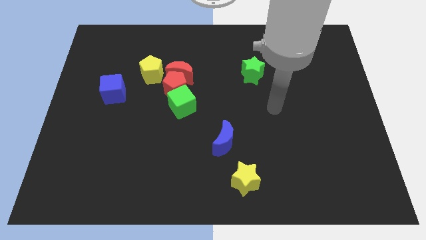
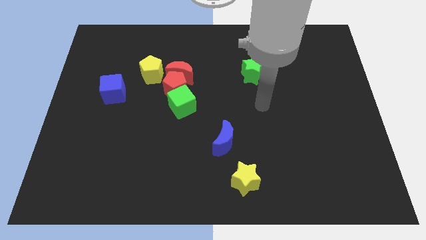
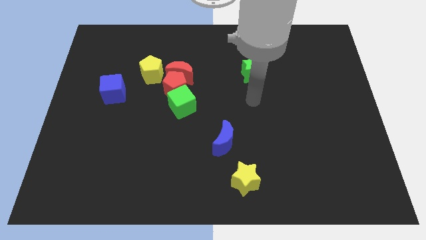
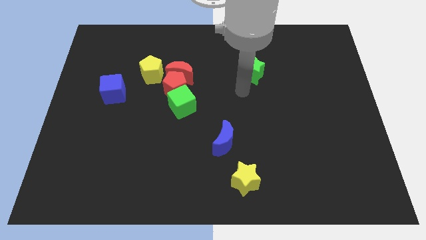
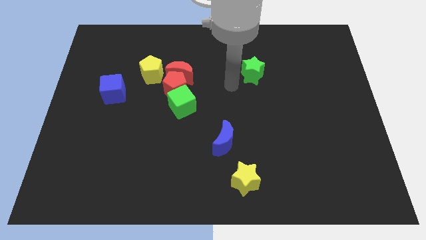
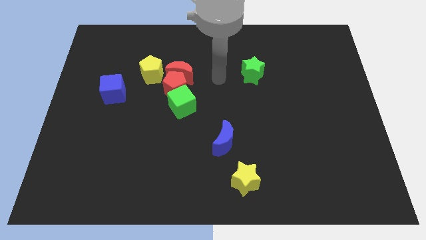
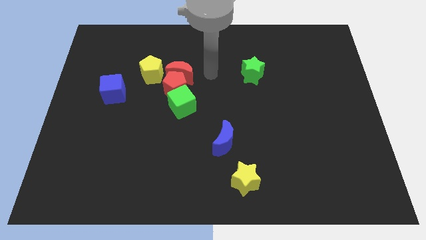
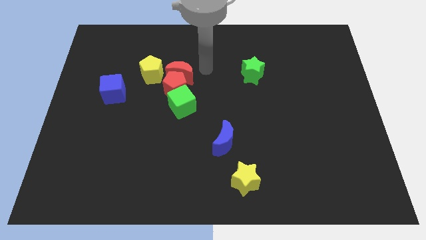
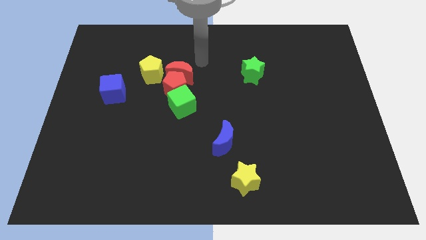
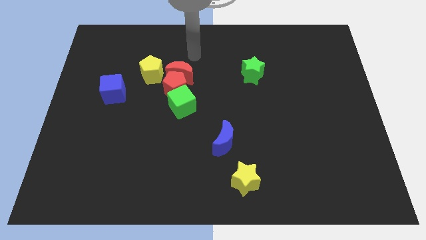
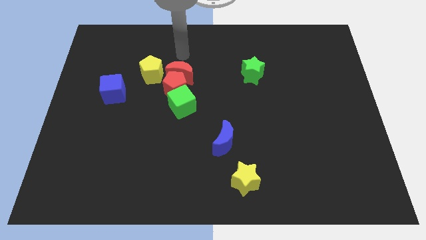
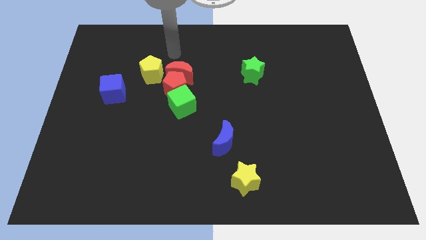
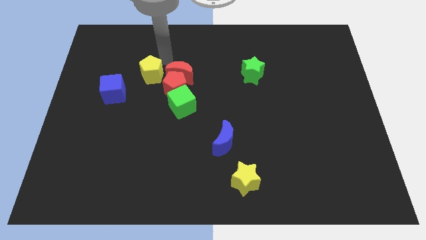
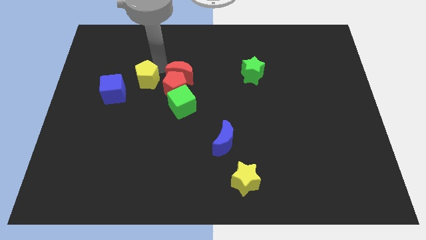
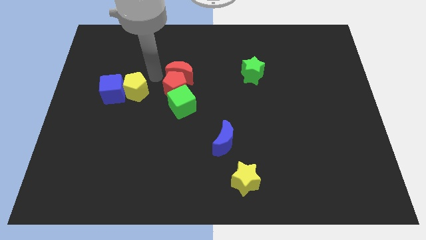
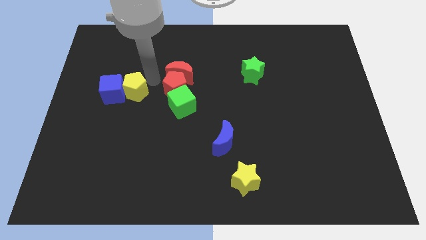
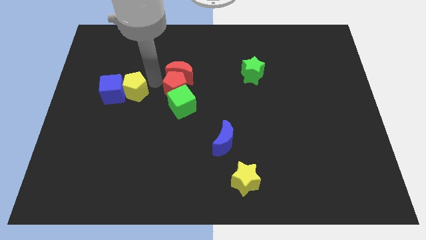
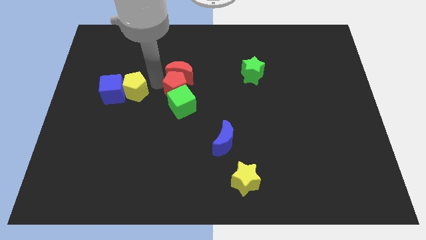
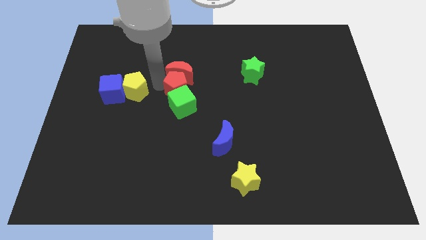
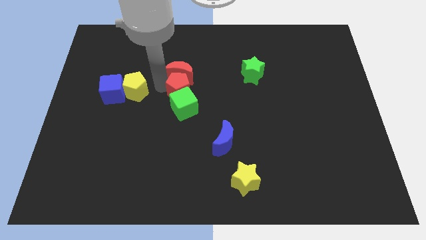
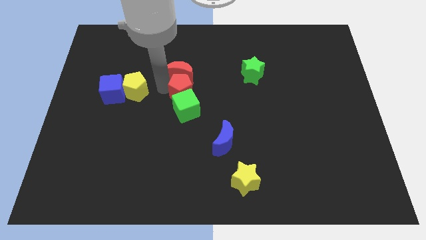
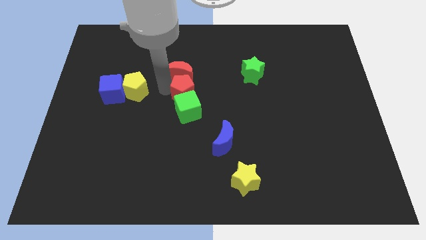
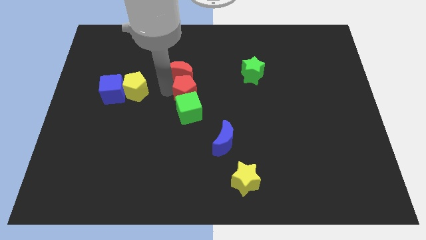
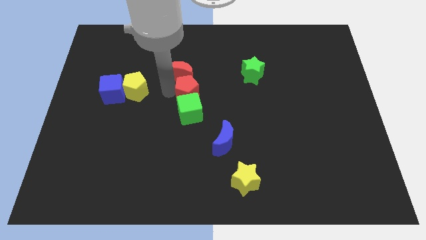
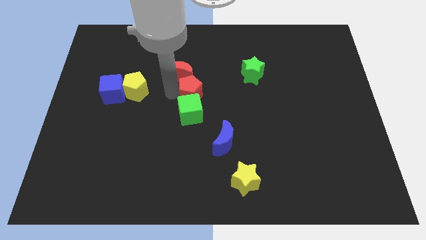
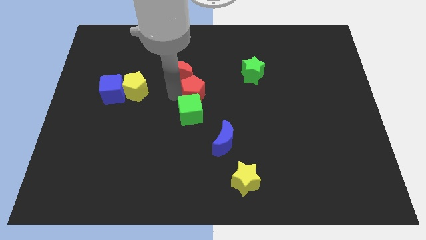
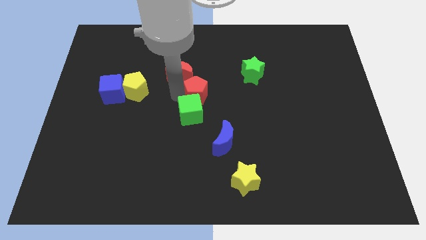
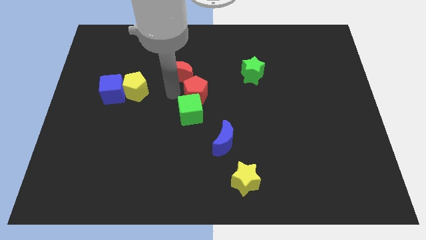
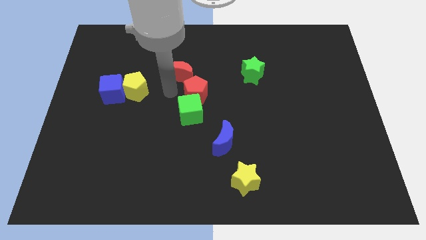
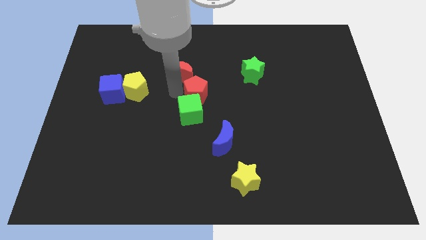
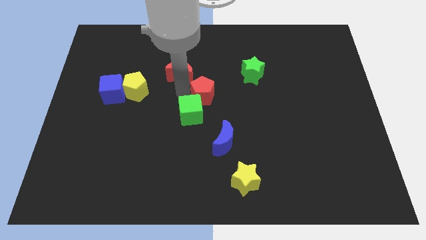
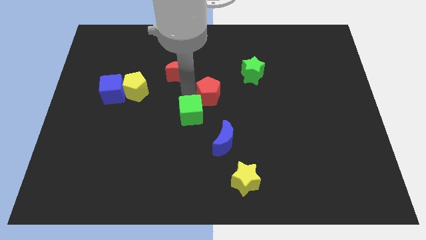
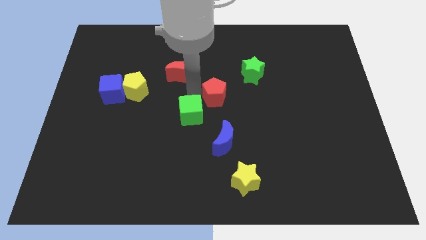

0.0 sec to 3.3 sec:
move the red pentagon away from the clump

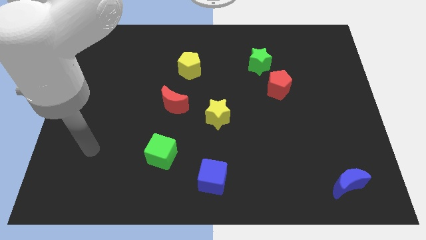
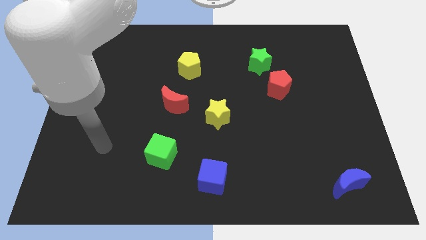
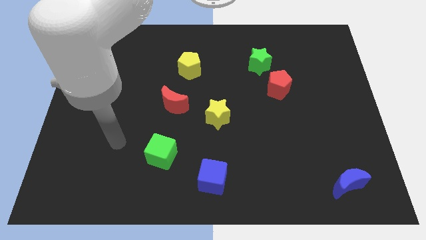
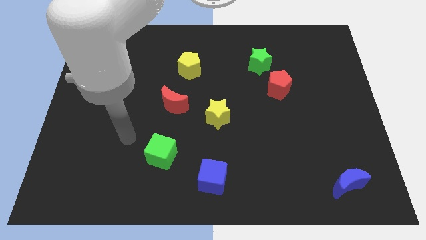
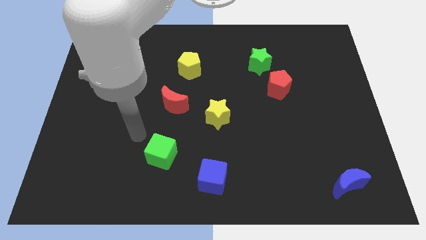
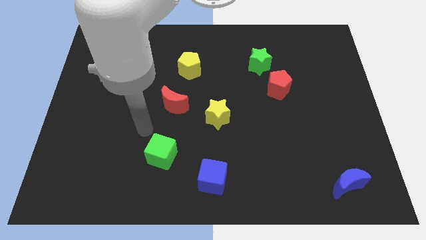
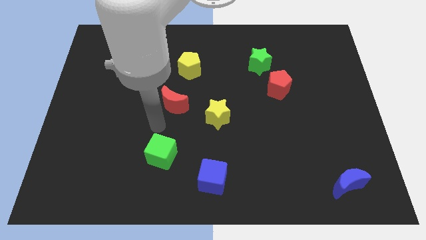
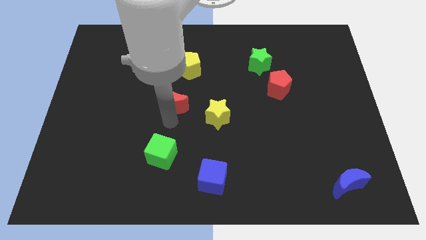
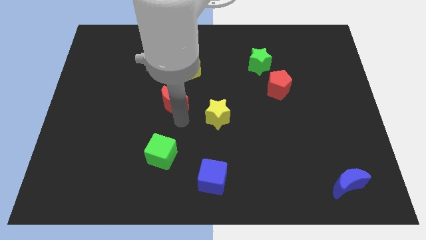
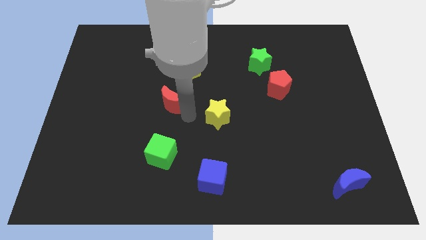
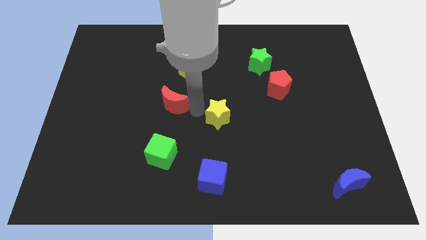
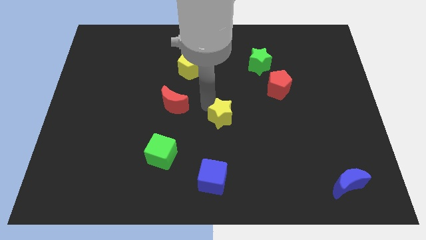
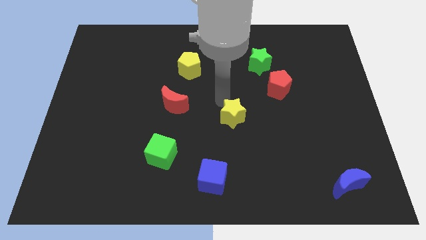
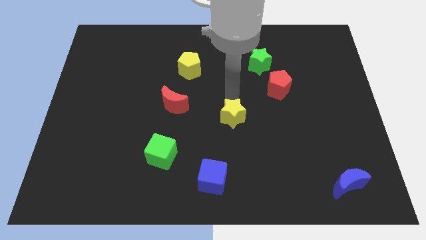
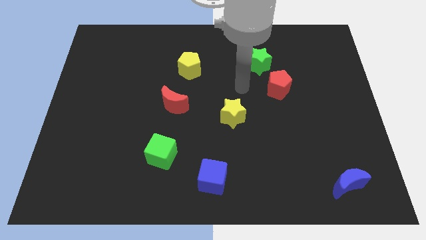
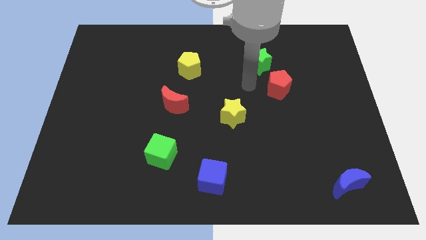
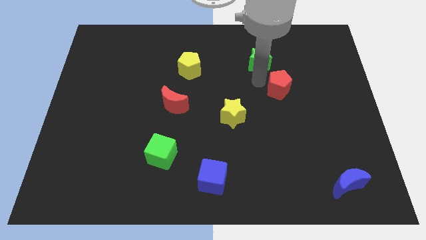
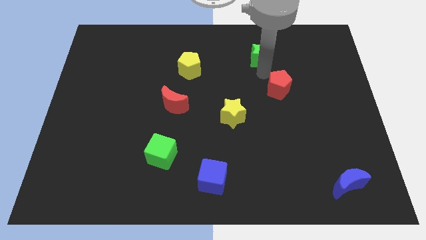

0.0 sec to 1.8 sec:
separate the red pentagon from the green star

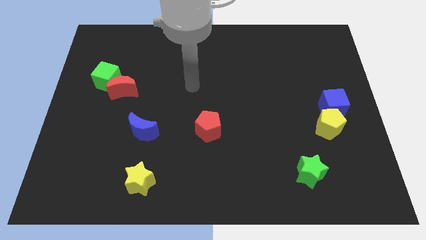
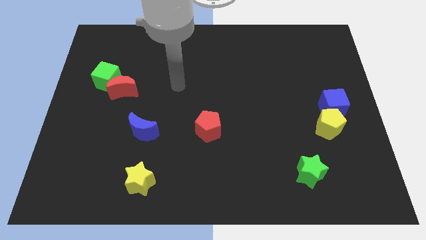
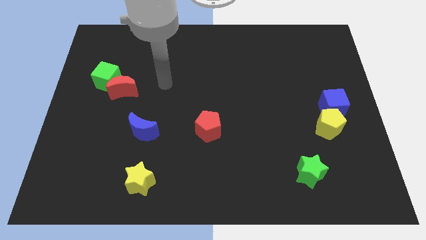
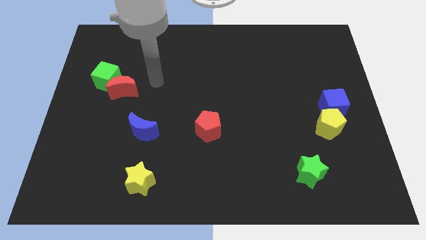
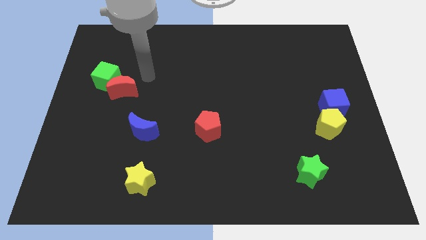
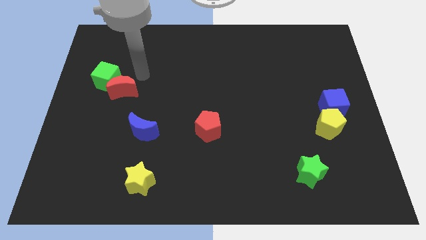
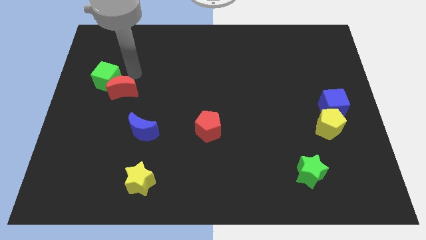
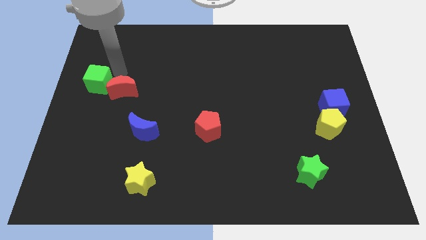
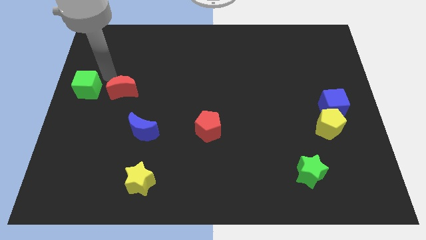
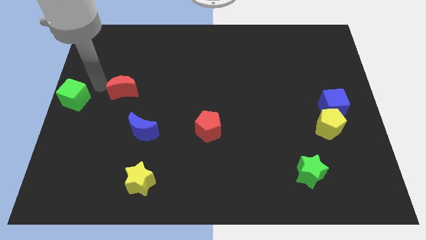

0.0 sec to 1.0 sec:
separate the red moon from the green cube

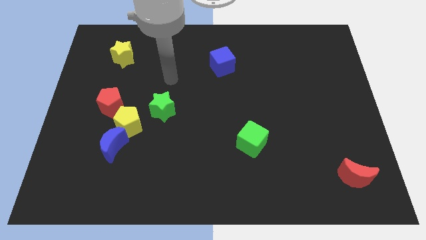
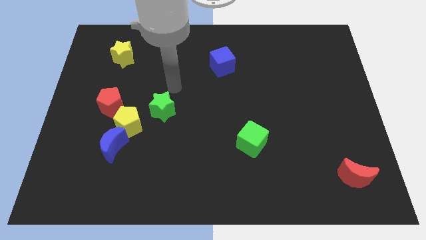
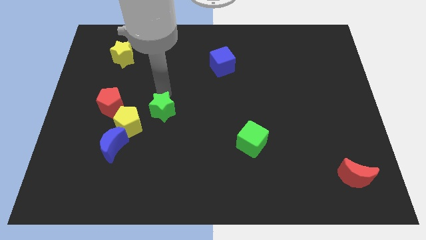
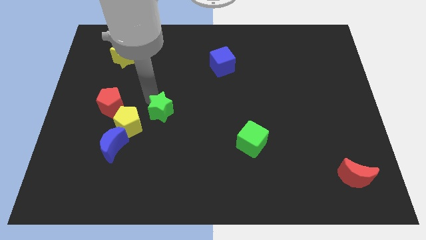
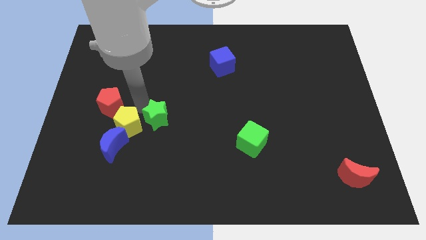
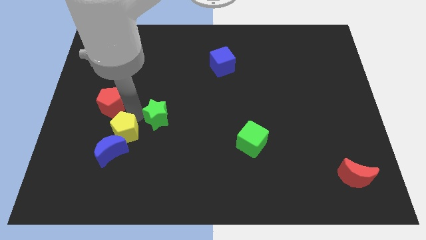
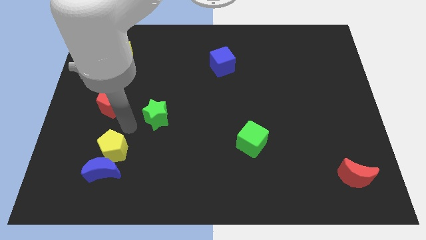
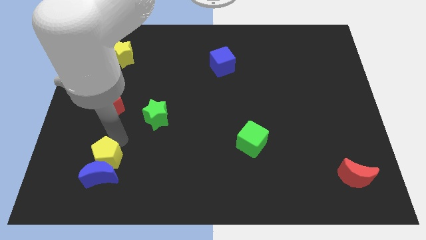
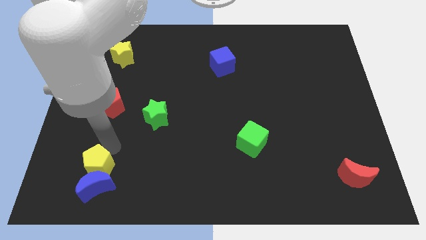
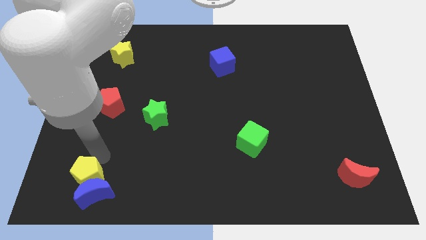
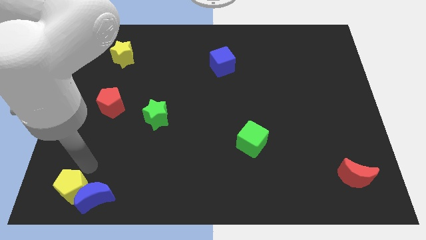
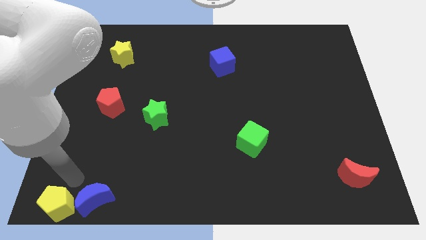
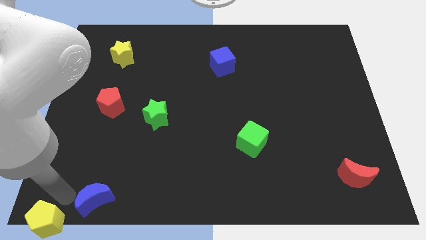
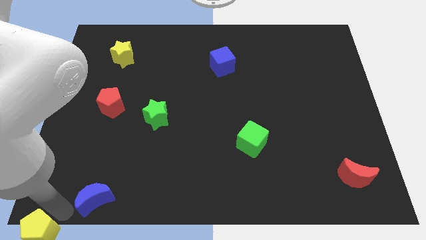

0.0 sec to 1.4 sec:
pull the blue moon apart from the yellow pentagon

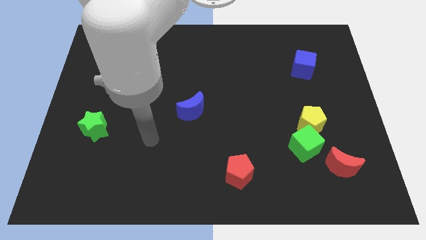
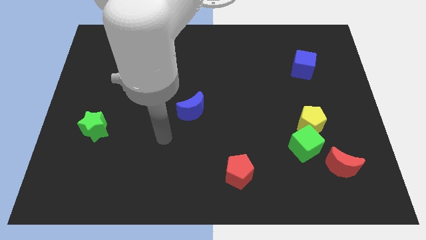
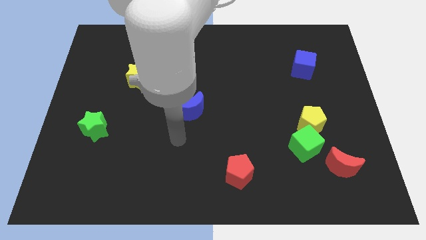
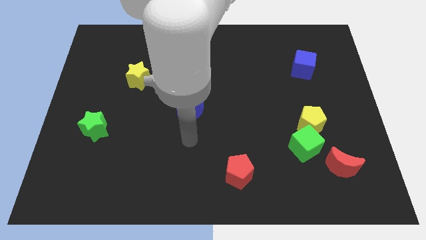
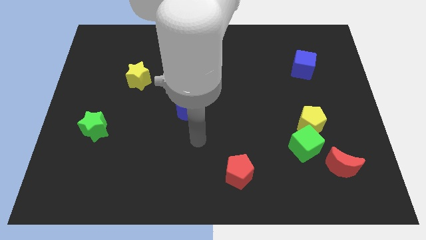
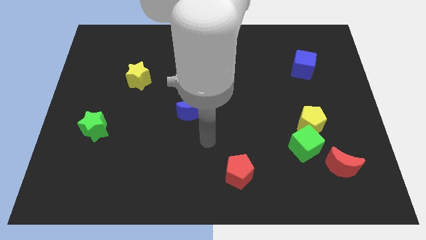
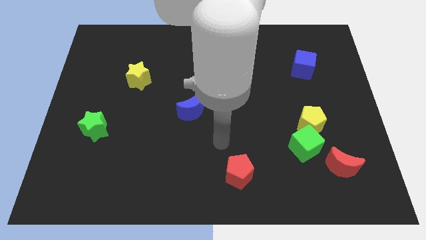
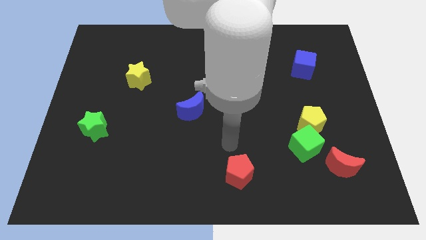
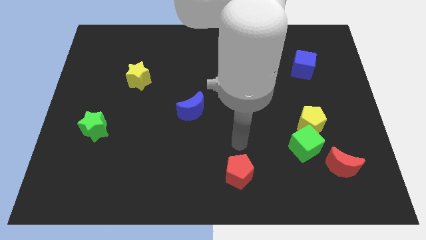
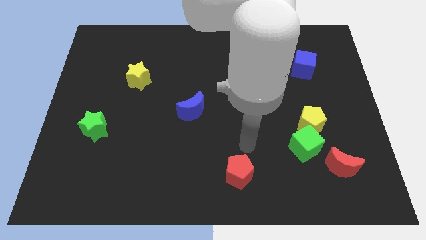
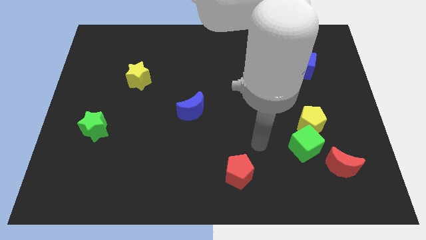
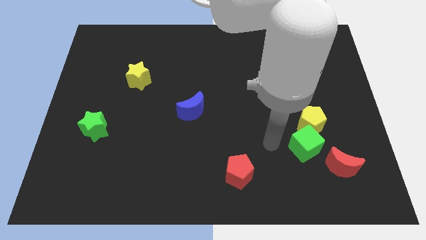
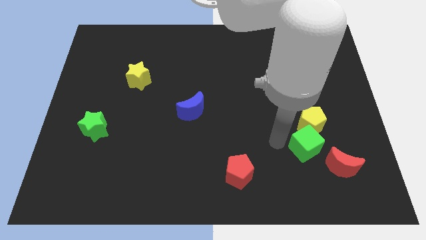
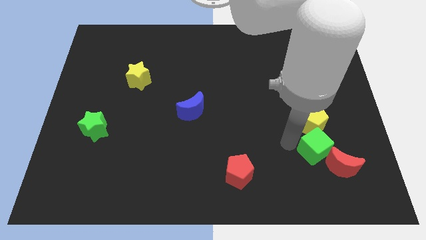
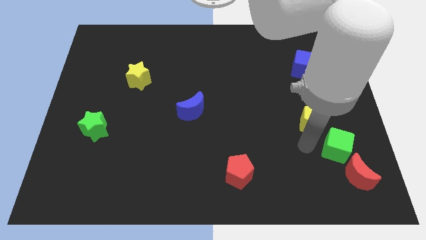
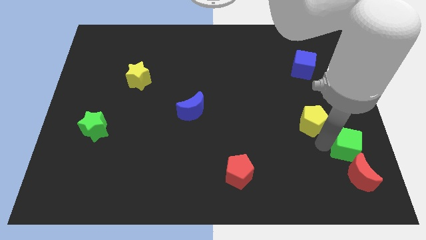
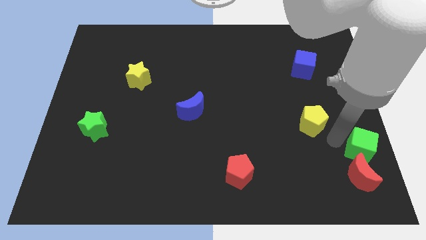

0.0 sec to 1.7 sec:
pull the yellow pentagon apart from the green cube

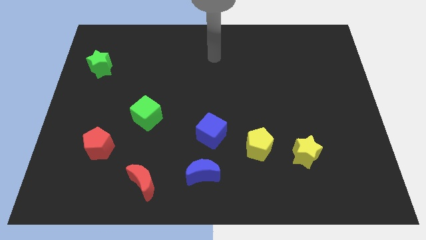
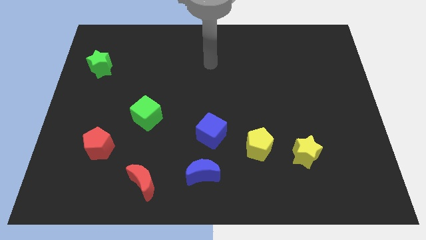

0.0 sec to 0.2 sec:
separate the yellow star from the yellow pentagon
